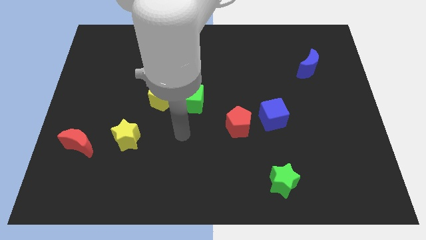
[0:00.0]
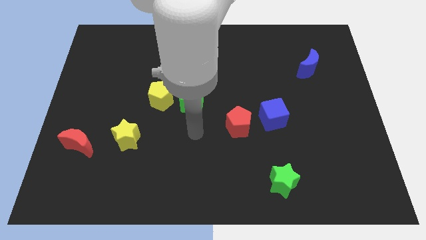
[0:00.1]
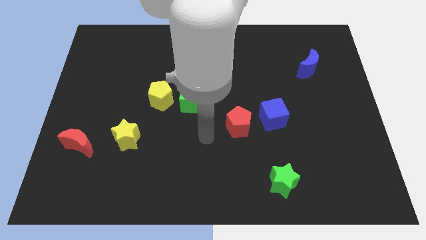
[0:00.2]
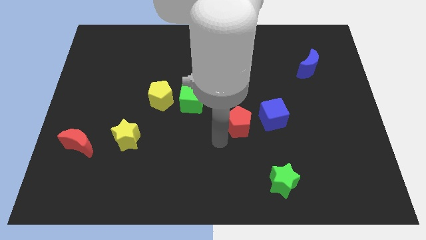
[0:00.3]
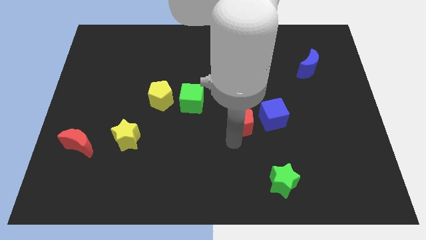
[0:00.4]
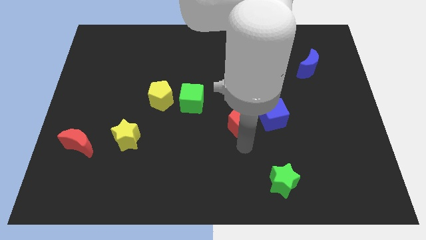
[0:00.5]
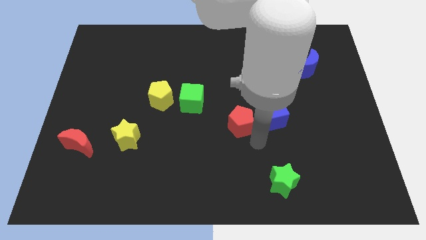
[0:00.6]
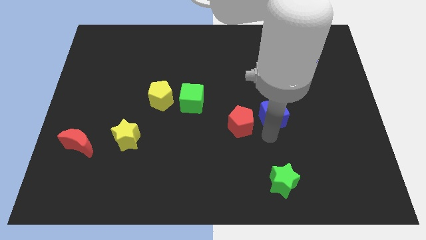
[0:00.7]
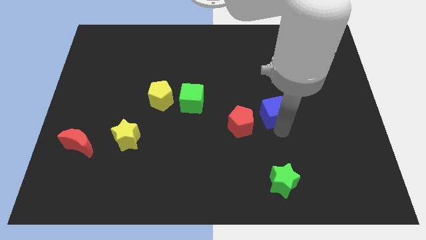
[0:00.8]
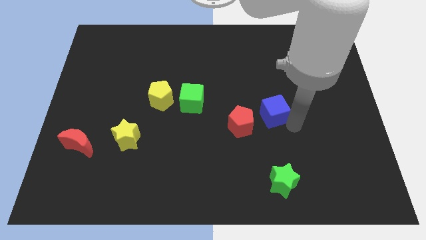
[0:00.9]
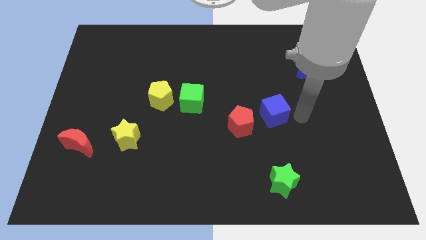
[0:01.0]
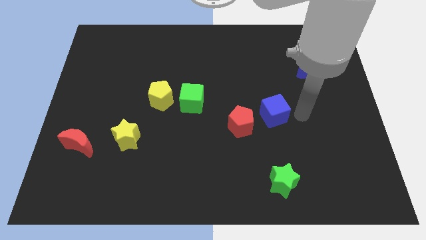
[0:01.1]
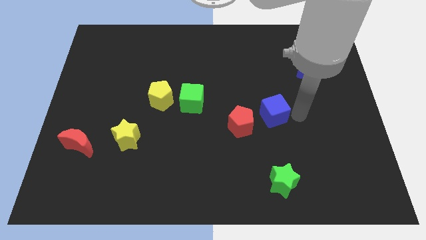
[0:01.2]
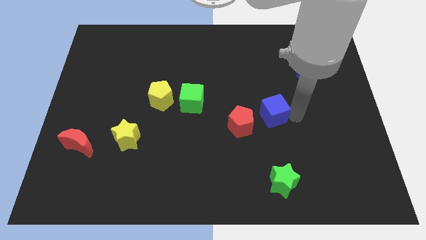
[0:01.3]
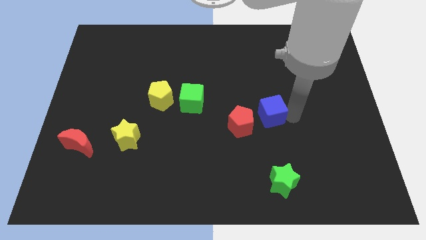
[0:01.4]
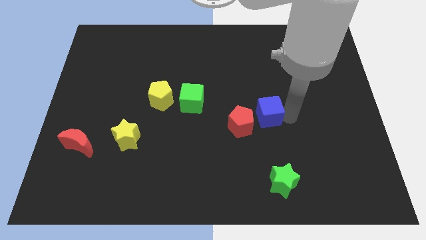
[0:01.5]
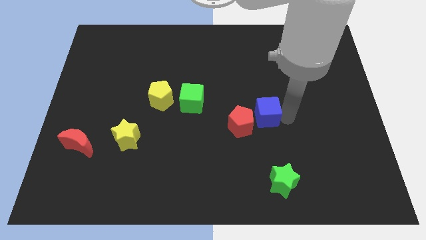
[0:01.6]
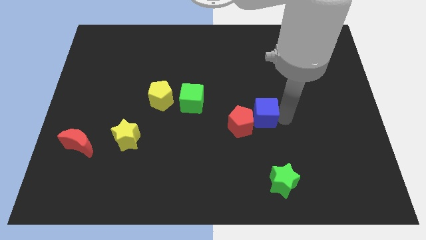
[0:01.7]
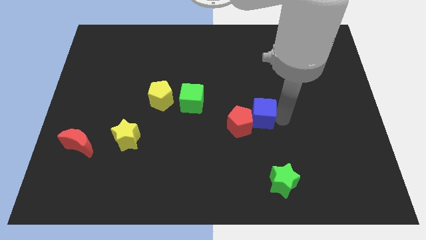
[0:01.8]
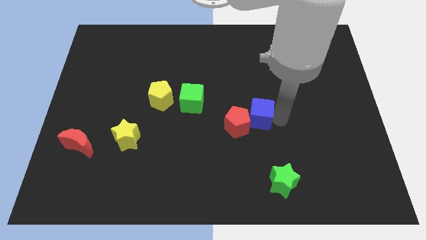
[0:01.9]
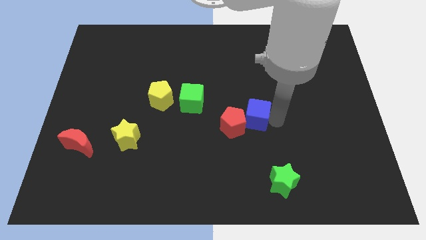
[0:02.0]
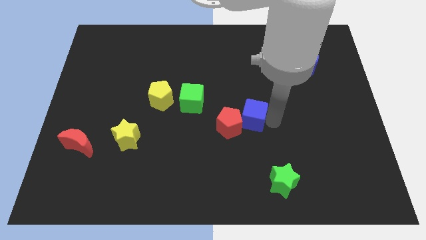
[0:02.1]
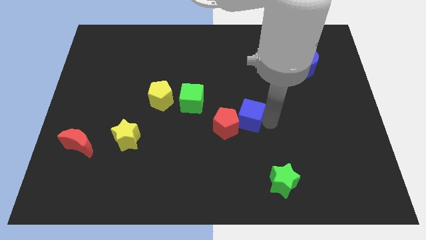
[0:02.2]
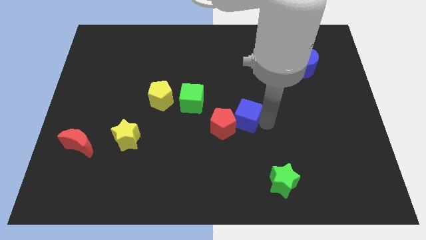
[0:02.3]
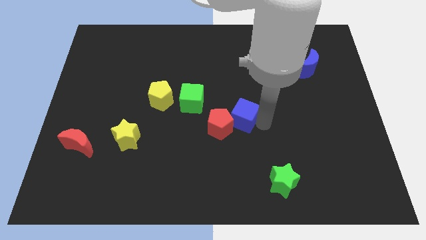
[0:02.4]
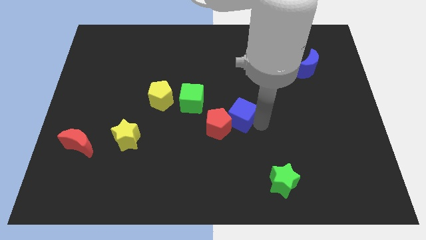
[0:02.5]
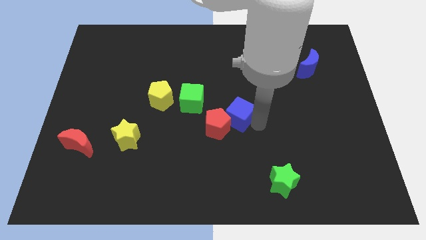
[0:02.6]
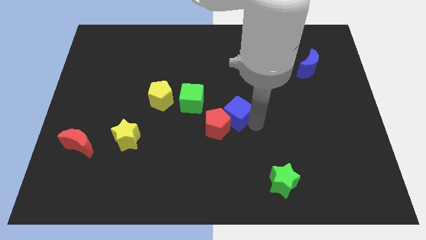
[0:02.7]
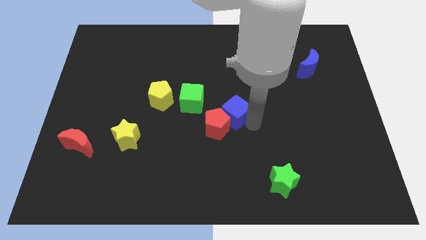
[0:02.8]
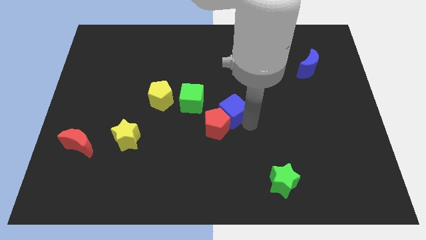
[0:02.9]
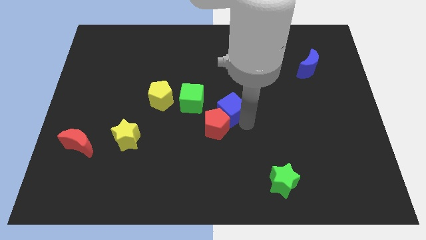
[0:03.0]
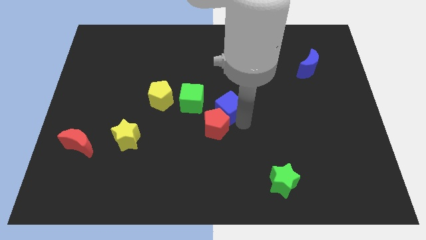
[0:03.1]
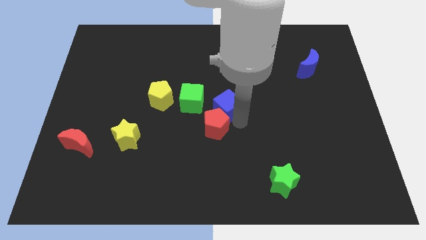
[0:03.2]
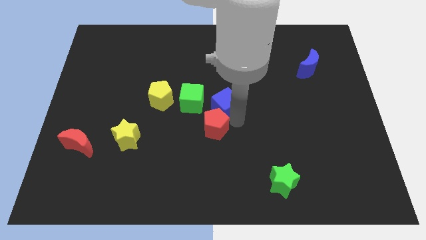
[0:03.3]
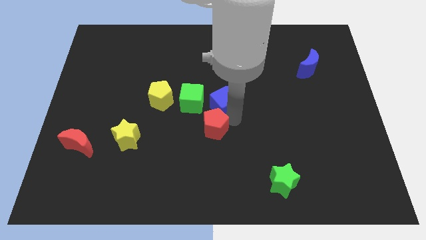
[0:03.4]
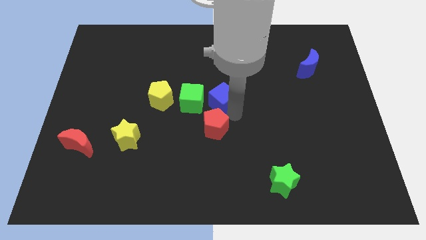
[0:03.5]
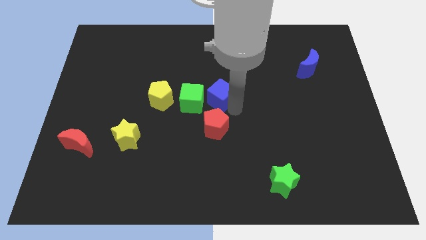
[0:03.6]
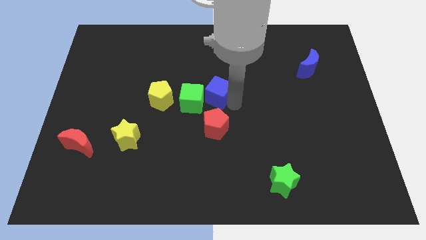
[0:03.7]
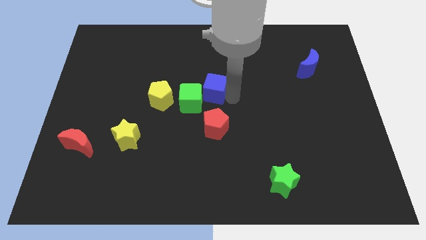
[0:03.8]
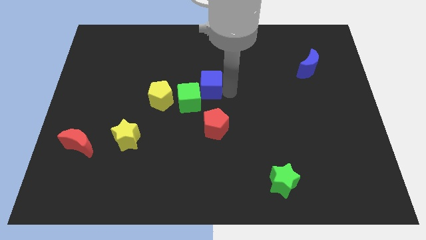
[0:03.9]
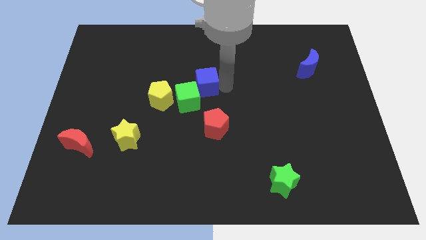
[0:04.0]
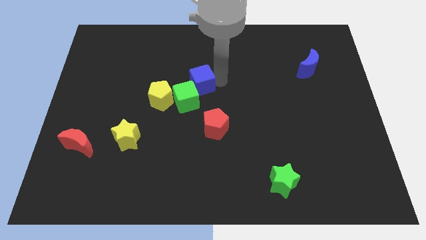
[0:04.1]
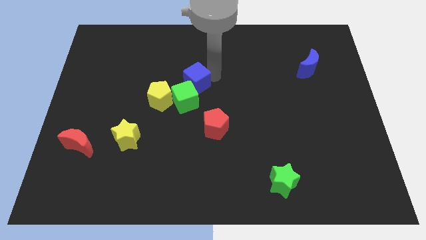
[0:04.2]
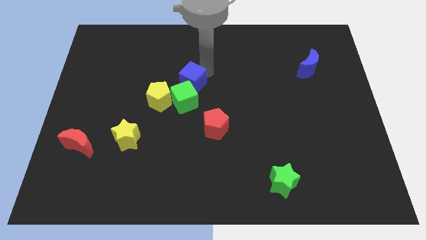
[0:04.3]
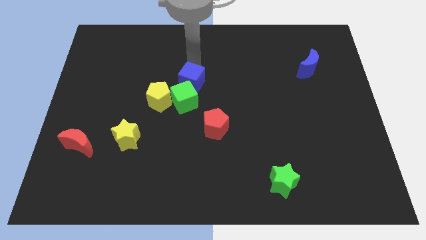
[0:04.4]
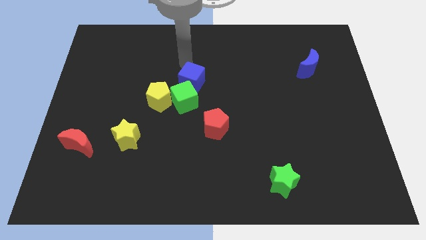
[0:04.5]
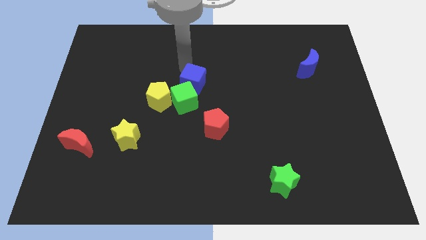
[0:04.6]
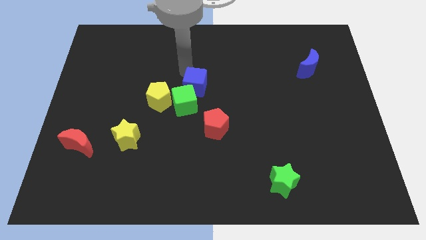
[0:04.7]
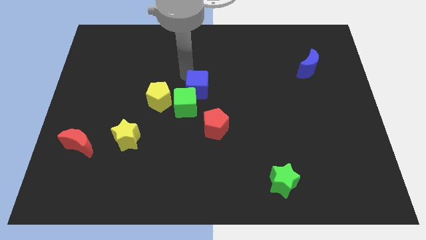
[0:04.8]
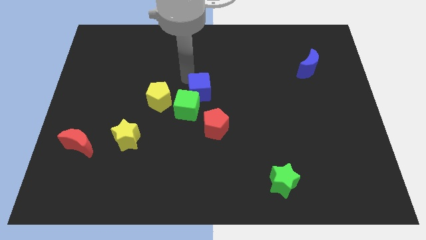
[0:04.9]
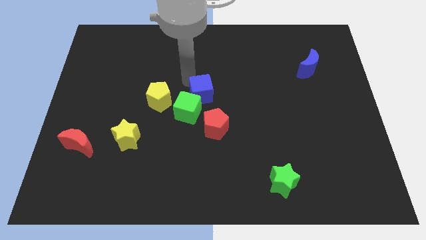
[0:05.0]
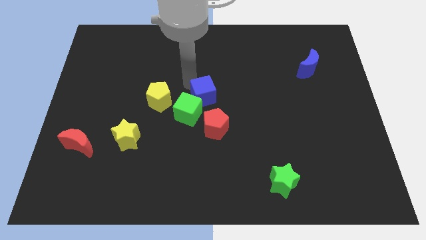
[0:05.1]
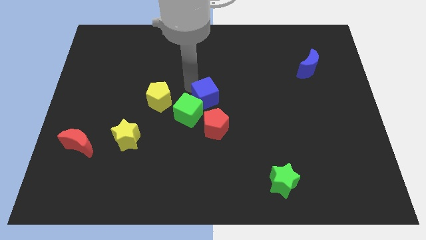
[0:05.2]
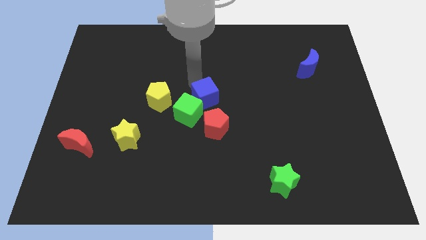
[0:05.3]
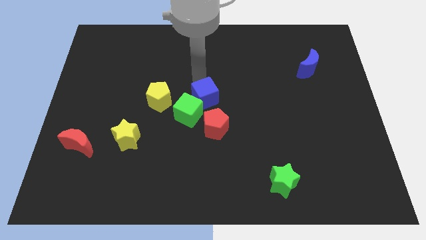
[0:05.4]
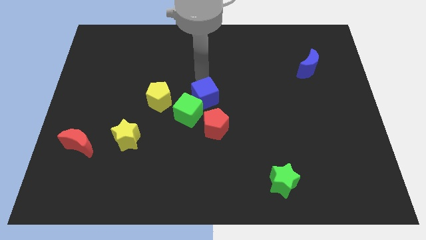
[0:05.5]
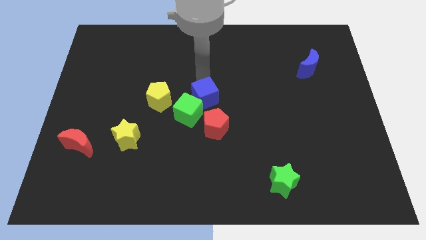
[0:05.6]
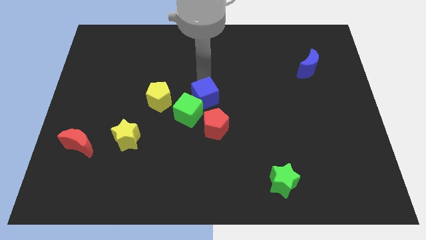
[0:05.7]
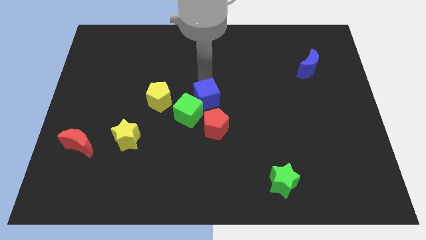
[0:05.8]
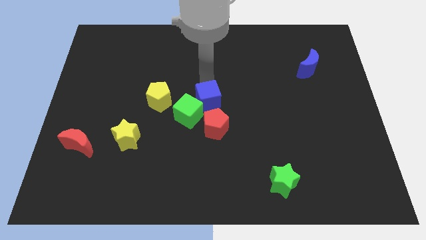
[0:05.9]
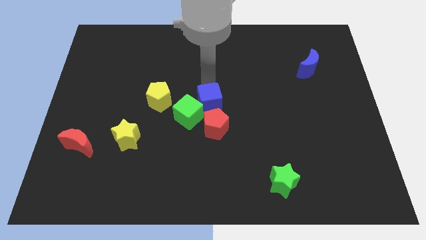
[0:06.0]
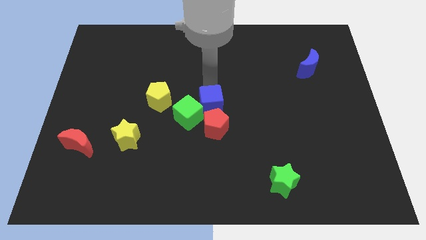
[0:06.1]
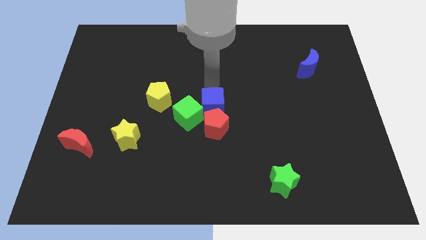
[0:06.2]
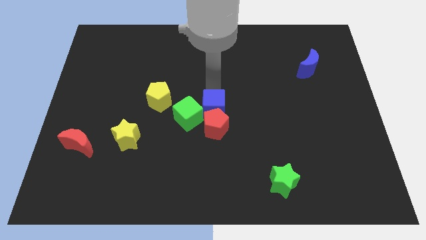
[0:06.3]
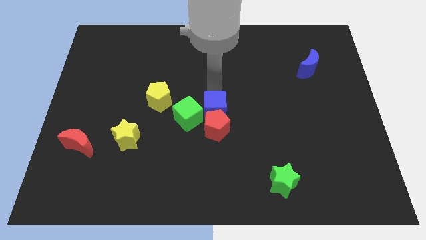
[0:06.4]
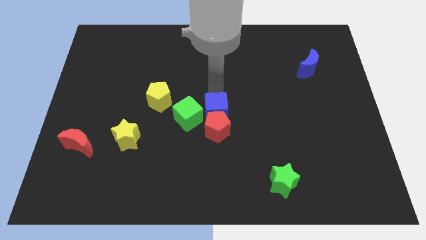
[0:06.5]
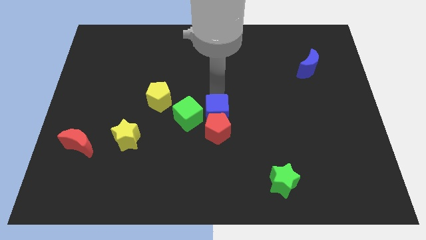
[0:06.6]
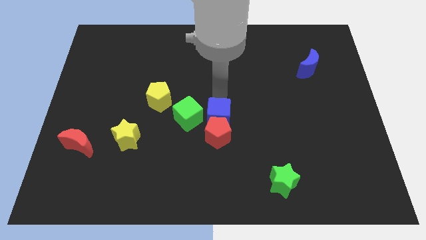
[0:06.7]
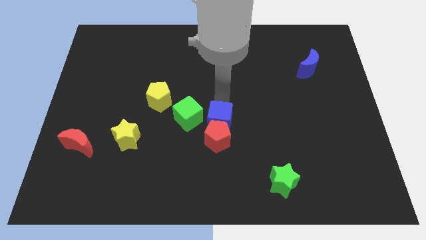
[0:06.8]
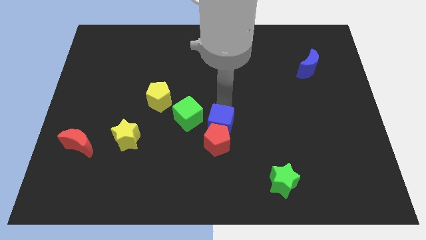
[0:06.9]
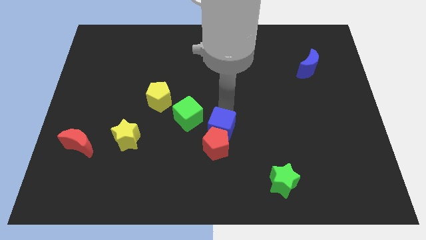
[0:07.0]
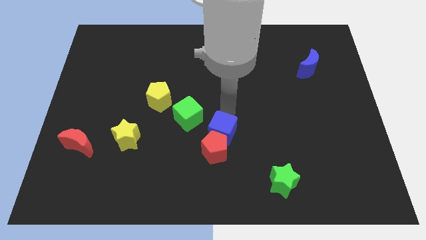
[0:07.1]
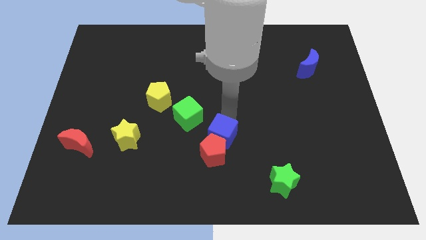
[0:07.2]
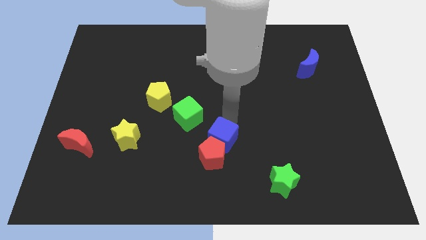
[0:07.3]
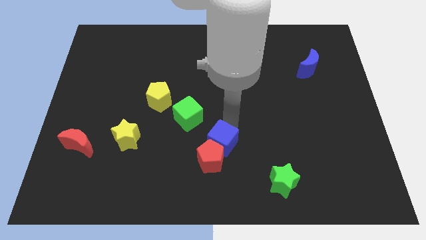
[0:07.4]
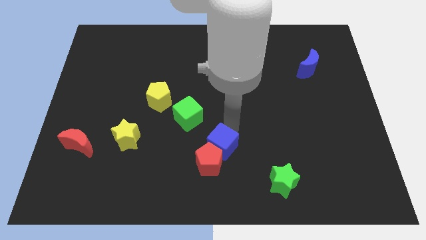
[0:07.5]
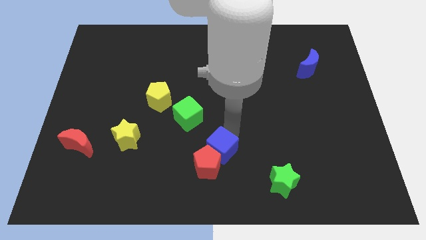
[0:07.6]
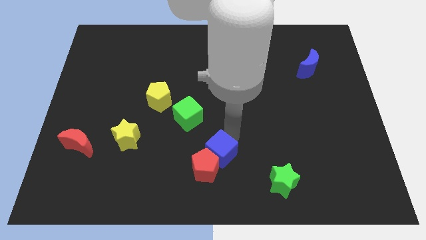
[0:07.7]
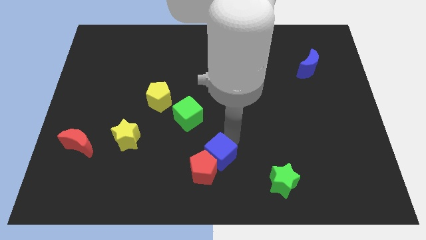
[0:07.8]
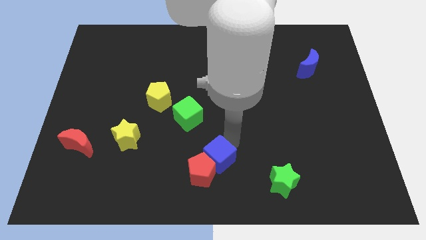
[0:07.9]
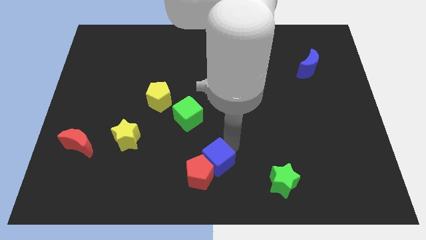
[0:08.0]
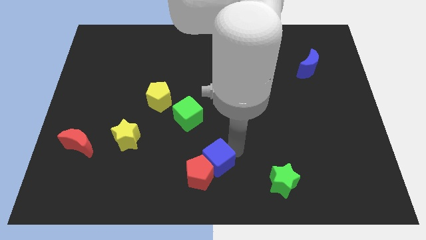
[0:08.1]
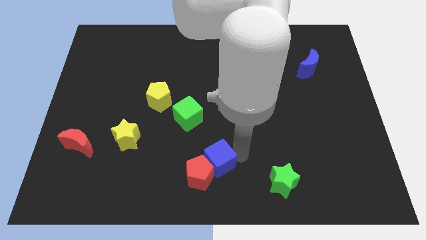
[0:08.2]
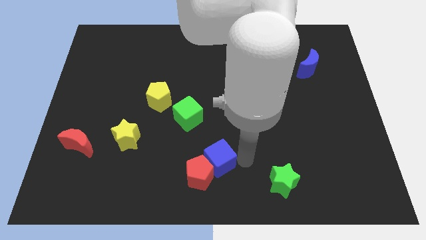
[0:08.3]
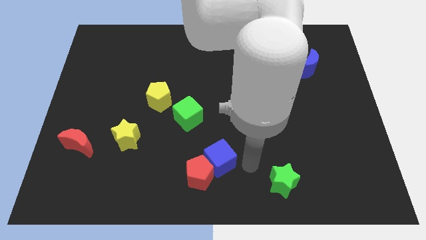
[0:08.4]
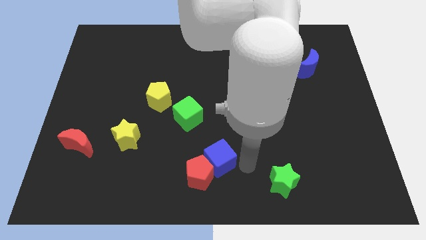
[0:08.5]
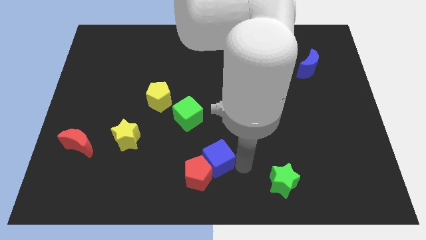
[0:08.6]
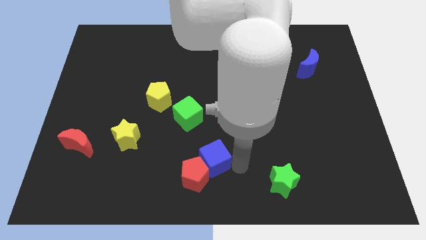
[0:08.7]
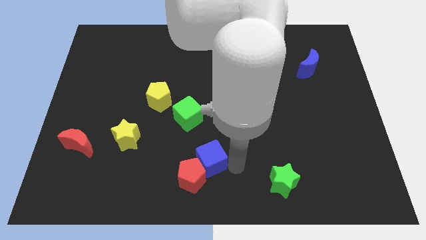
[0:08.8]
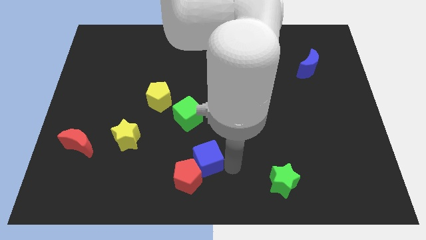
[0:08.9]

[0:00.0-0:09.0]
put the blue cube to the bottom of the green cube
